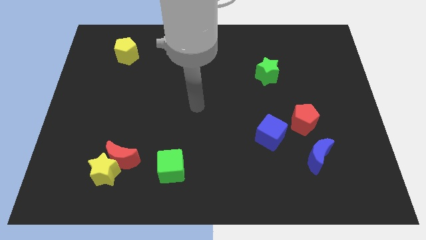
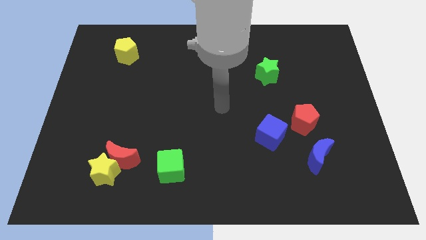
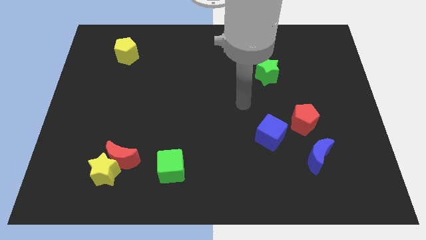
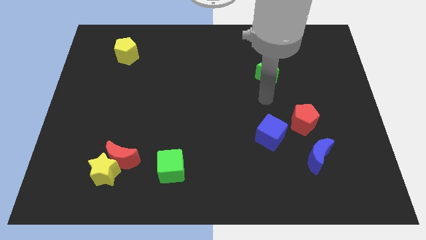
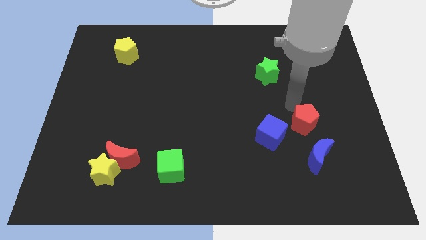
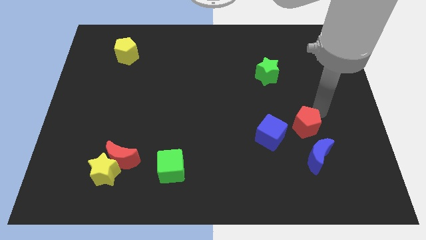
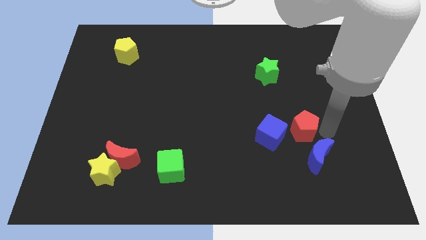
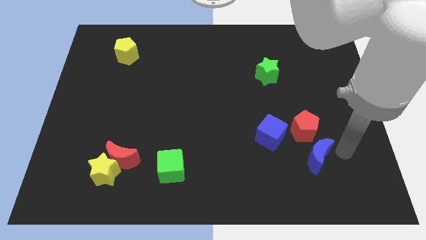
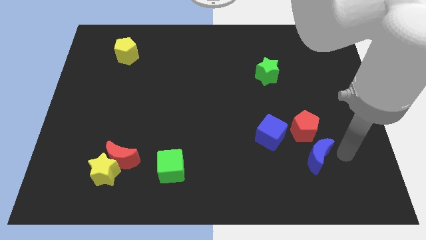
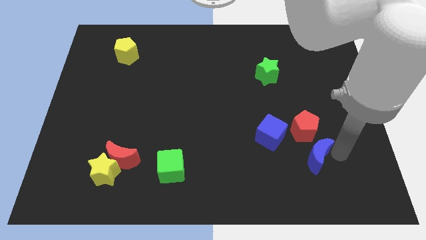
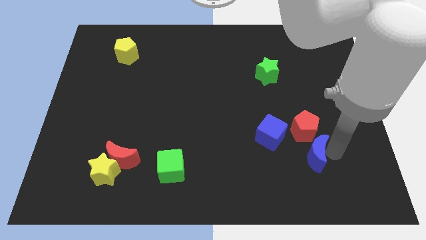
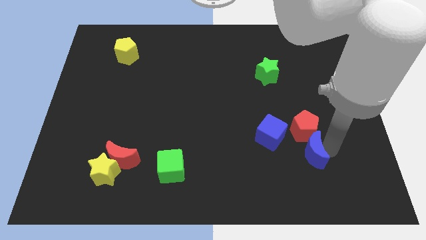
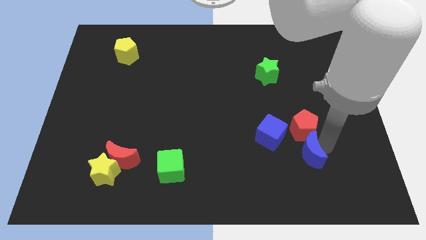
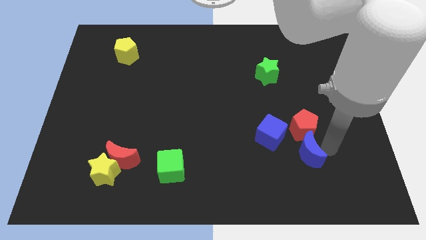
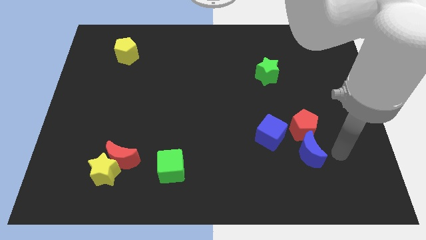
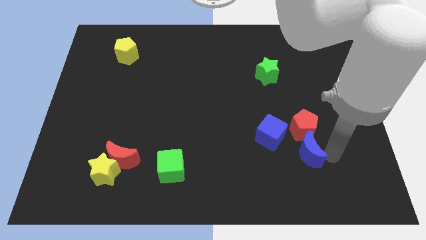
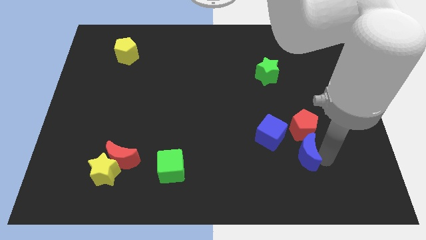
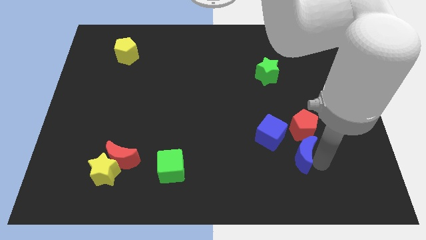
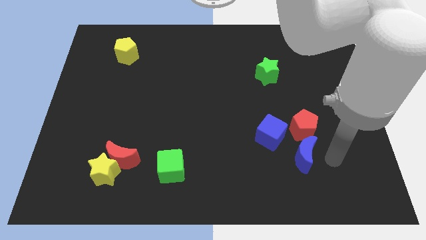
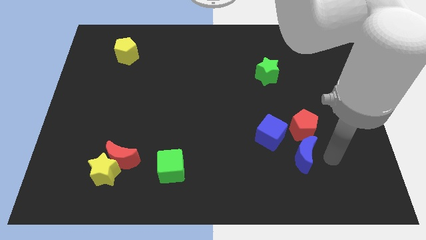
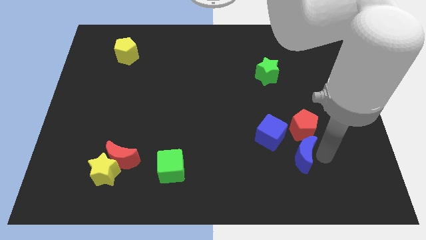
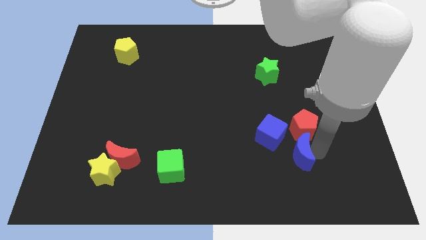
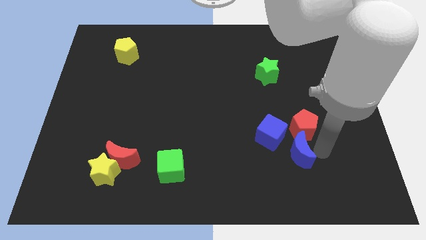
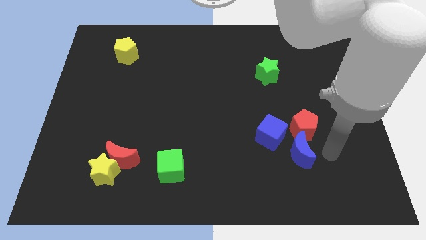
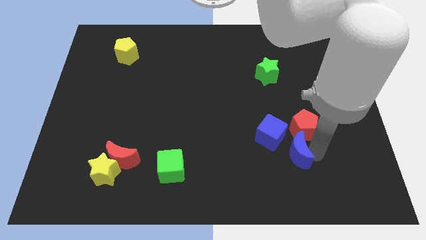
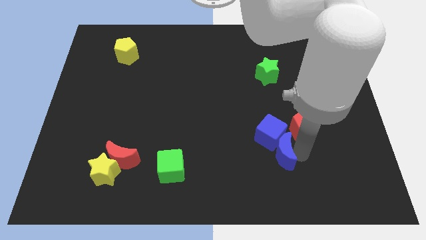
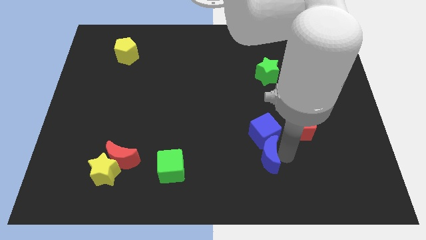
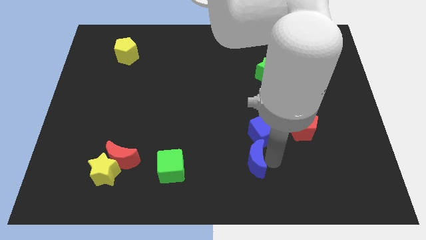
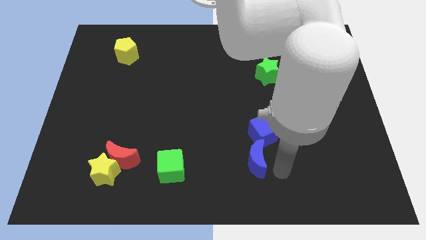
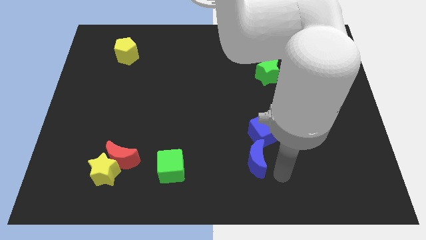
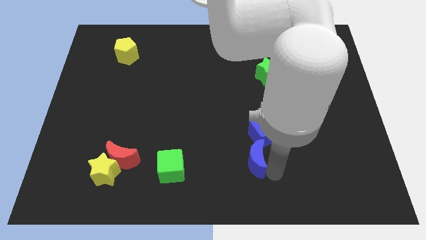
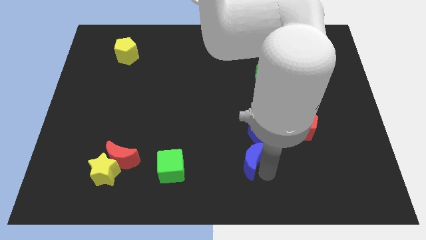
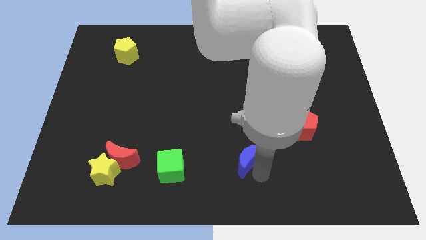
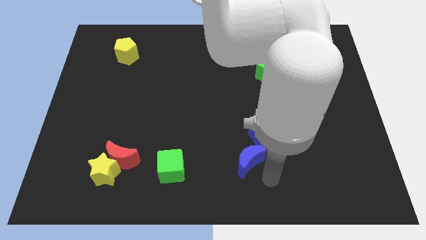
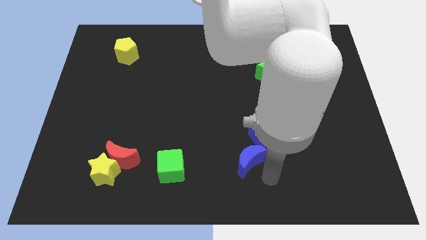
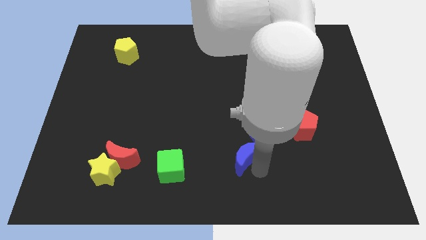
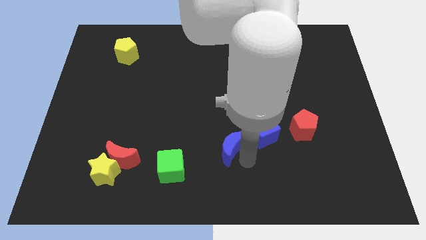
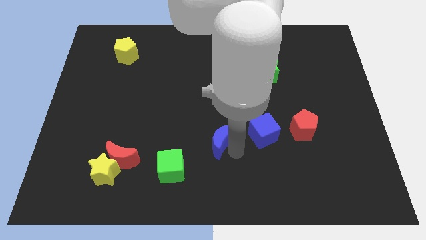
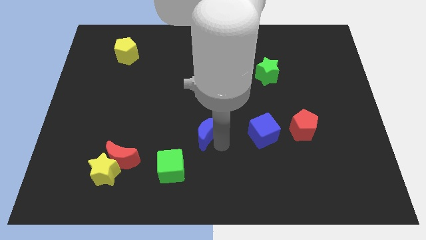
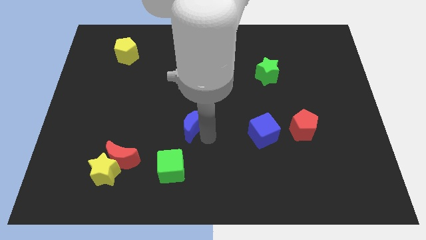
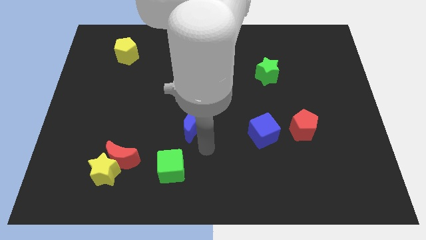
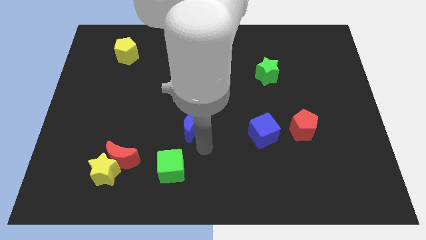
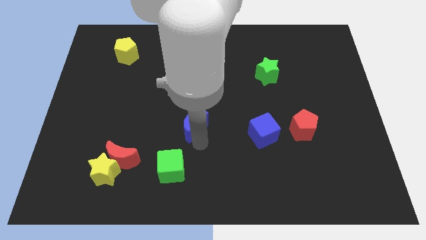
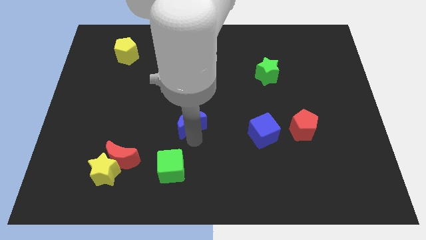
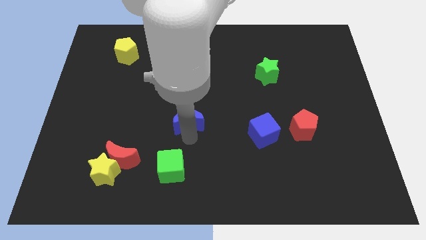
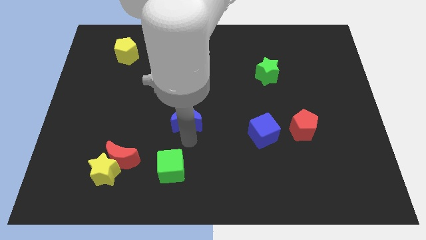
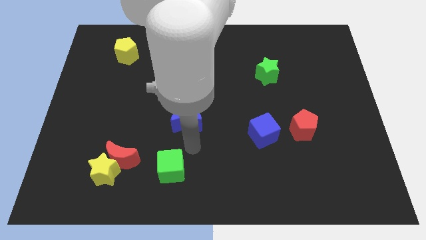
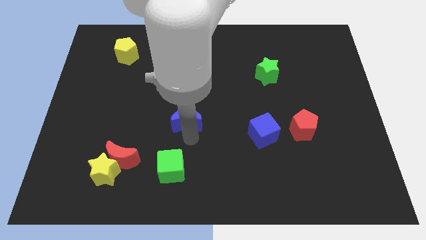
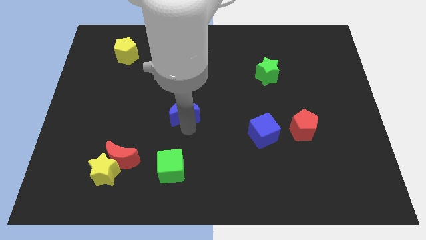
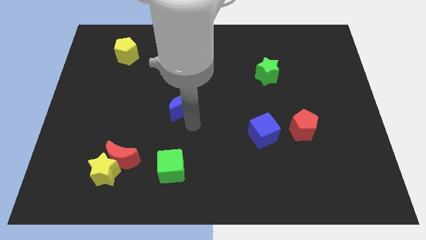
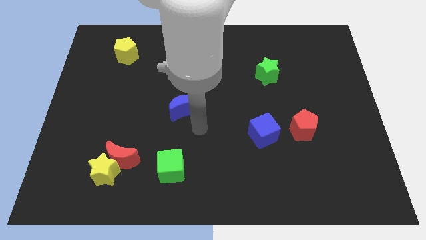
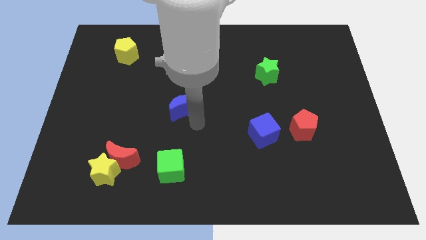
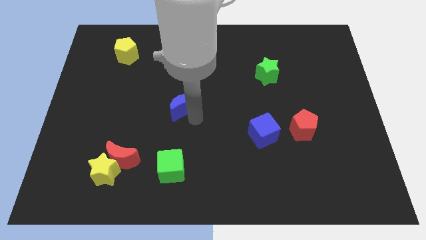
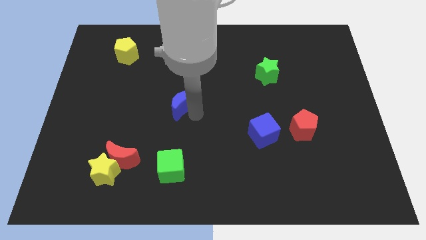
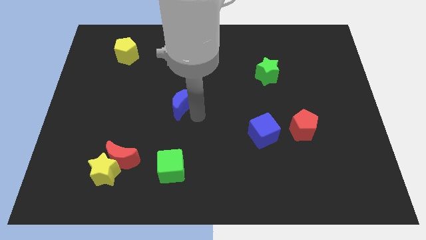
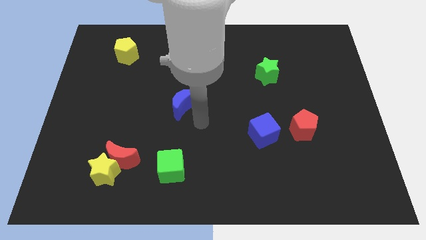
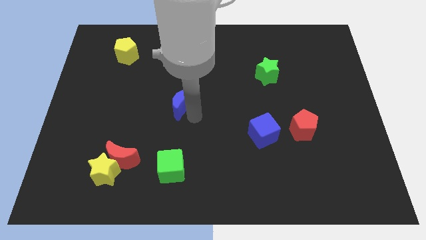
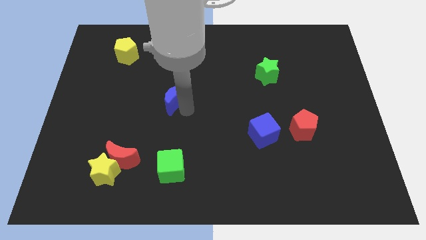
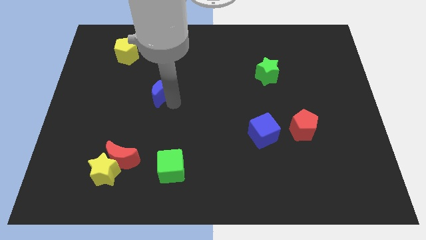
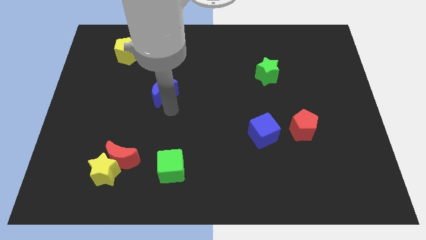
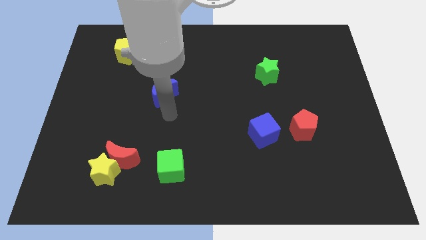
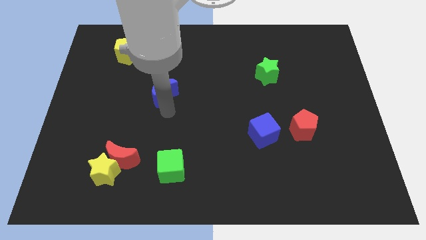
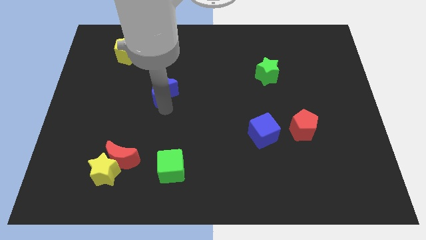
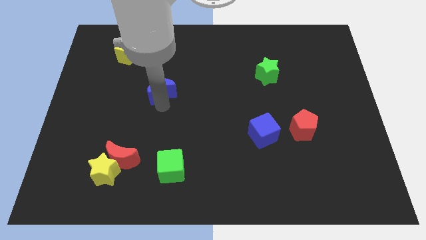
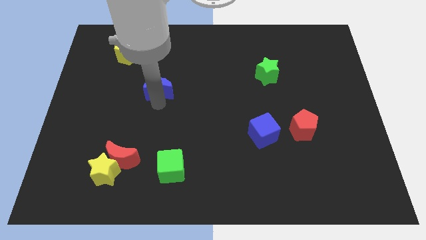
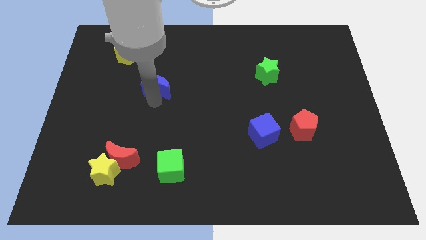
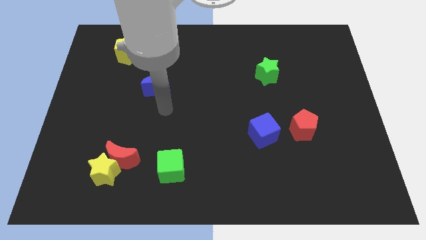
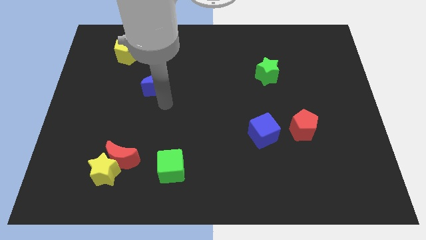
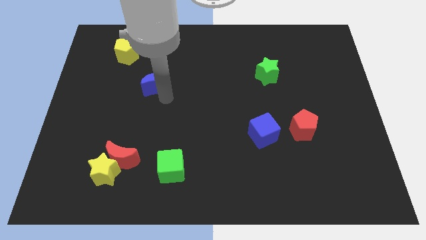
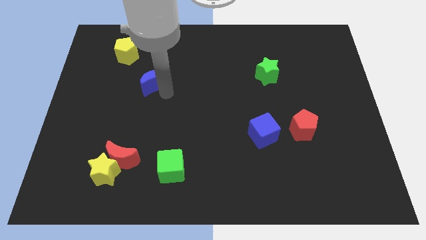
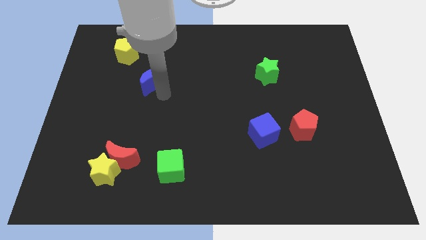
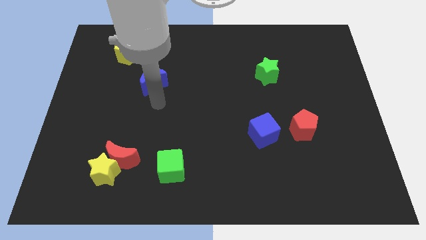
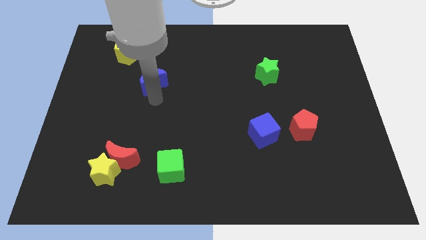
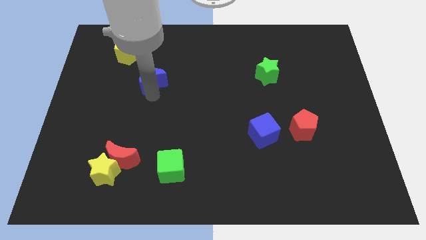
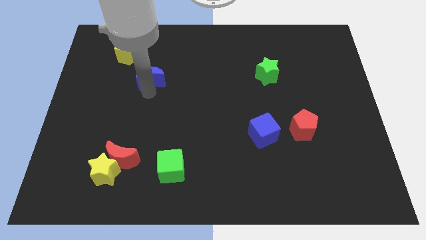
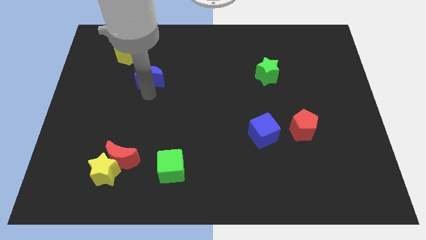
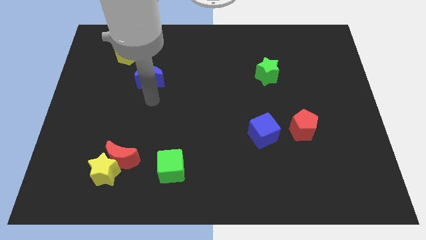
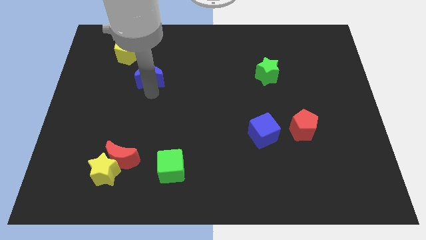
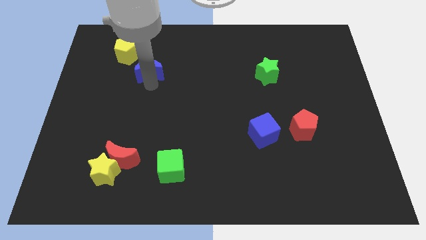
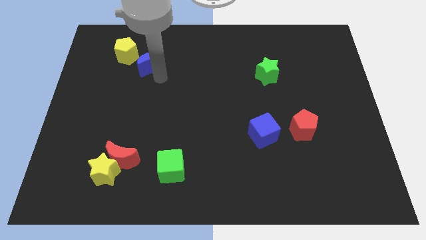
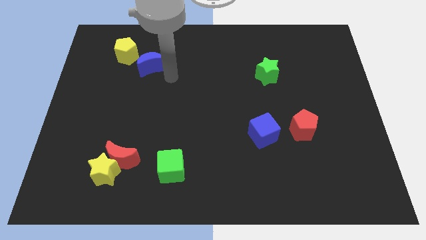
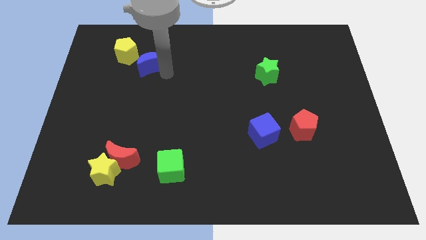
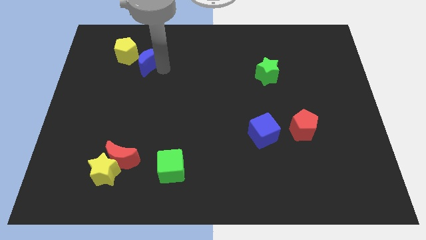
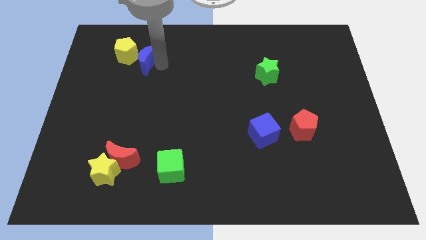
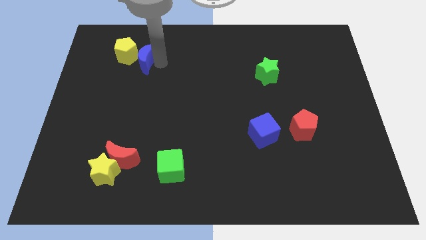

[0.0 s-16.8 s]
move the blue moon towards the yellow pentagon
